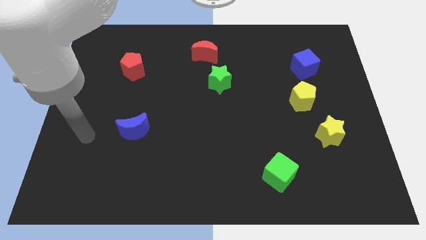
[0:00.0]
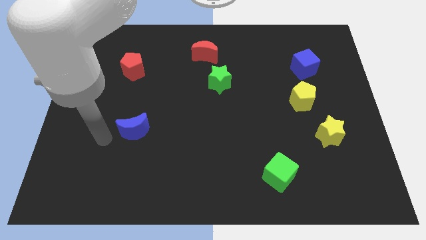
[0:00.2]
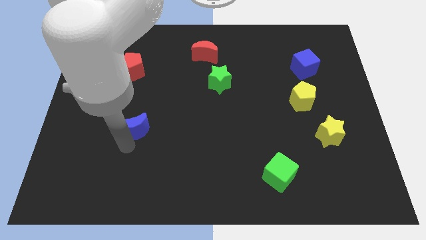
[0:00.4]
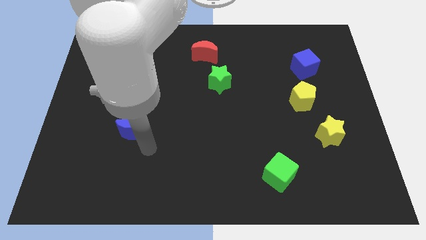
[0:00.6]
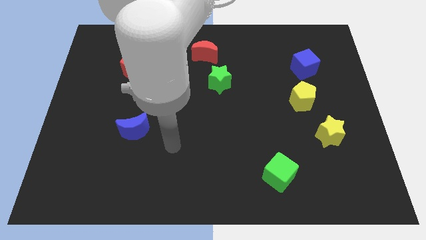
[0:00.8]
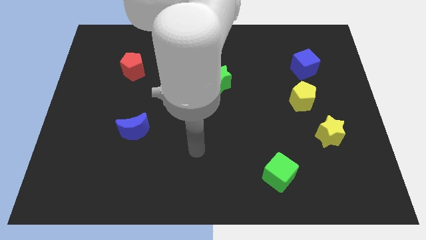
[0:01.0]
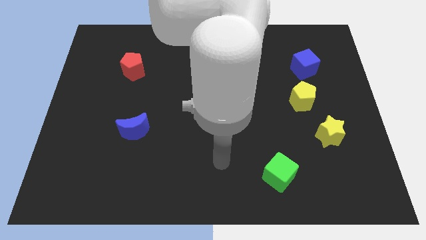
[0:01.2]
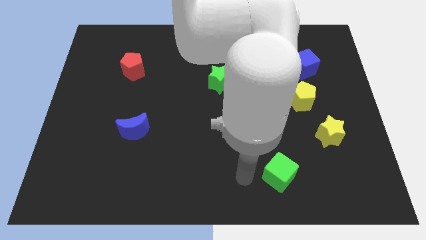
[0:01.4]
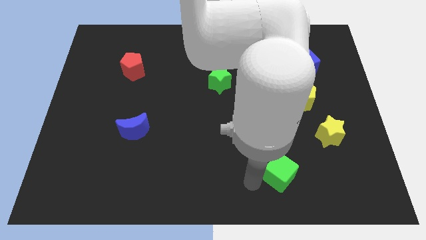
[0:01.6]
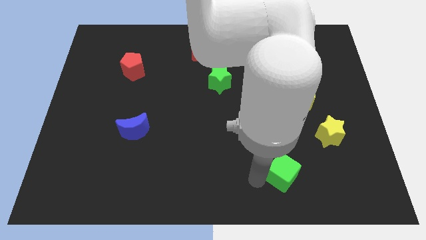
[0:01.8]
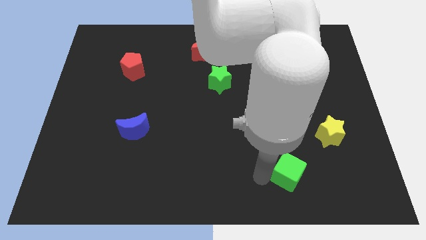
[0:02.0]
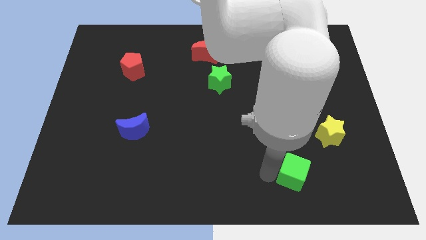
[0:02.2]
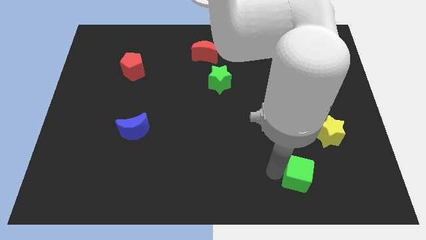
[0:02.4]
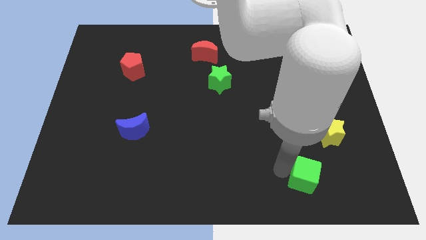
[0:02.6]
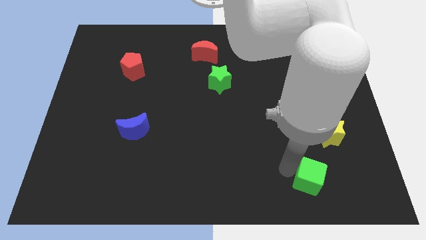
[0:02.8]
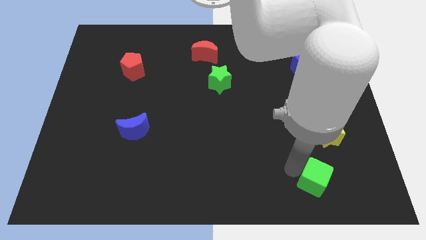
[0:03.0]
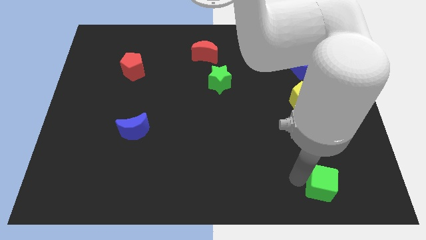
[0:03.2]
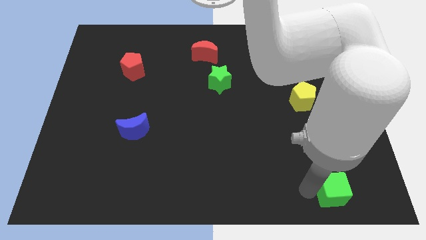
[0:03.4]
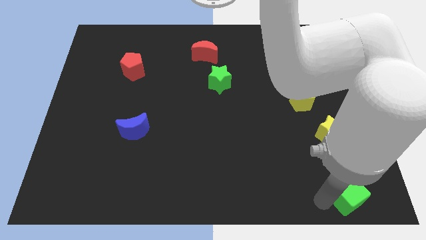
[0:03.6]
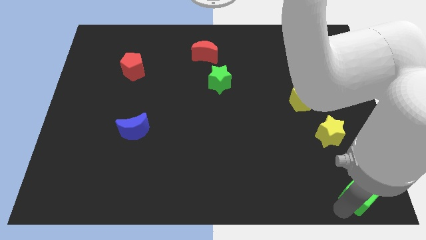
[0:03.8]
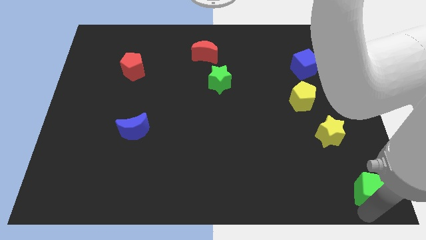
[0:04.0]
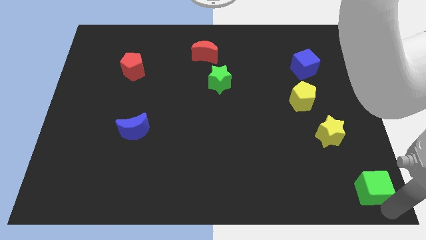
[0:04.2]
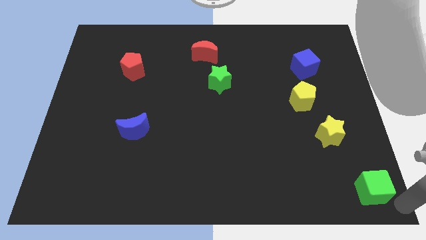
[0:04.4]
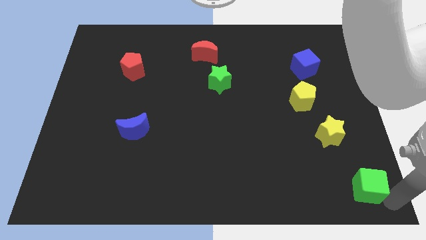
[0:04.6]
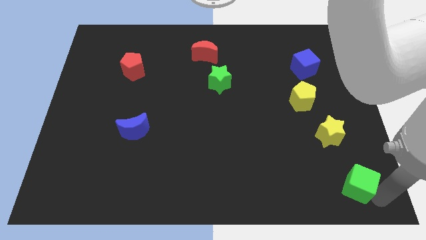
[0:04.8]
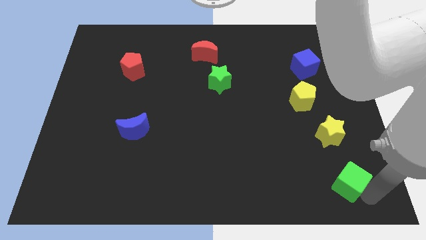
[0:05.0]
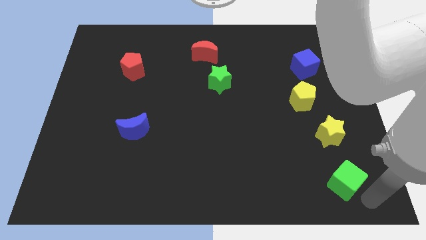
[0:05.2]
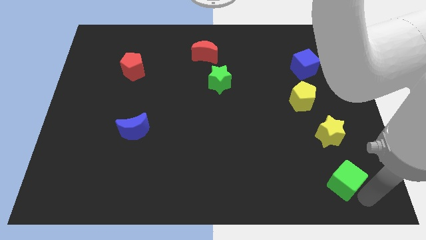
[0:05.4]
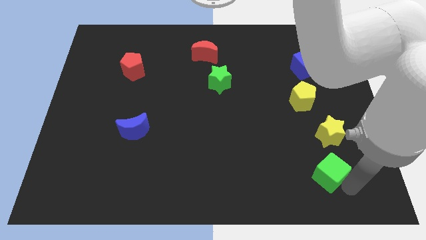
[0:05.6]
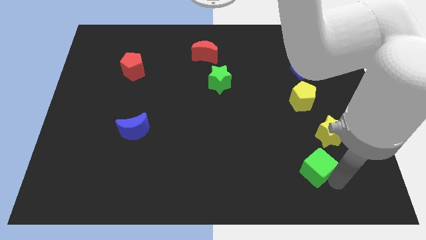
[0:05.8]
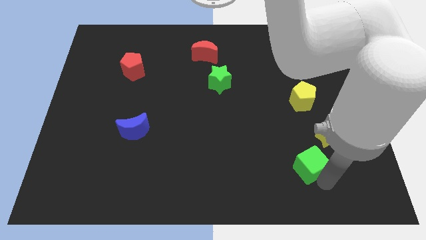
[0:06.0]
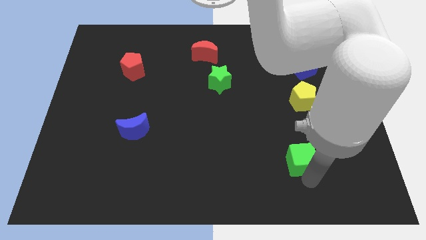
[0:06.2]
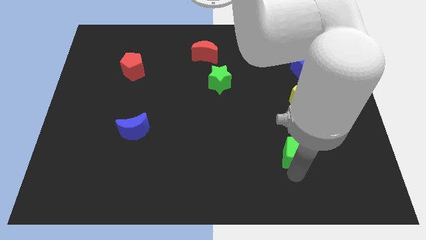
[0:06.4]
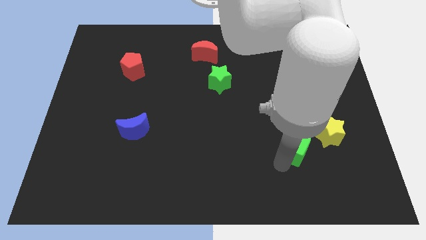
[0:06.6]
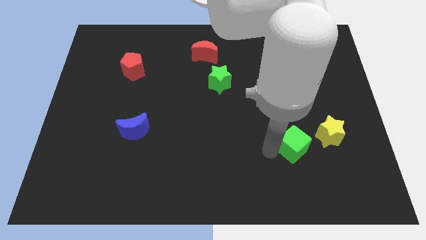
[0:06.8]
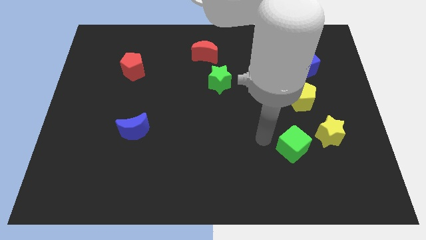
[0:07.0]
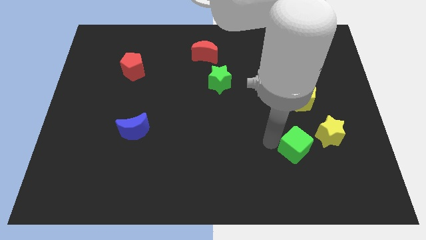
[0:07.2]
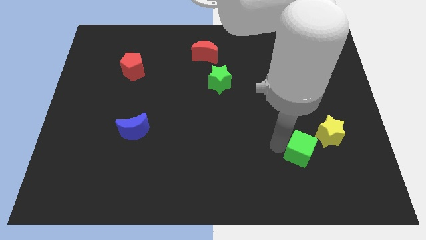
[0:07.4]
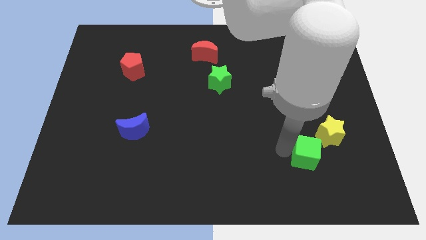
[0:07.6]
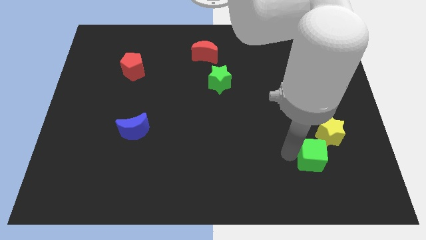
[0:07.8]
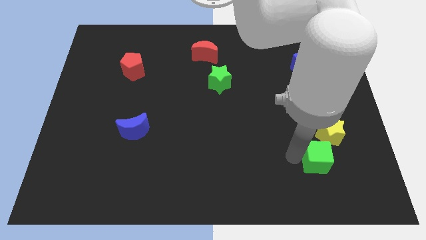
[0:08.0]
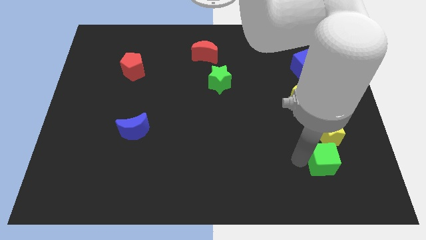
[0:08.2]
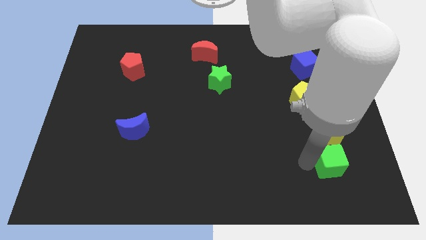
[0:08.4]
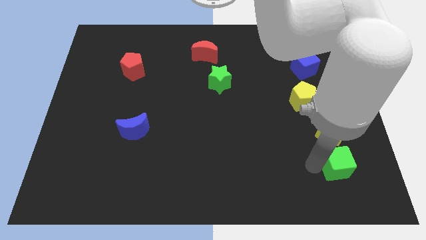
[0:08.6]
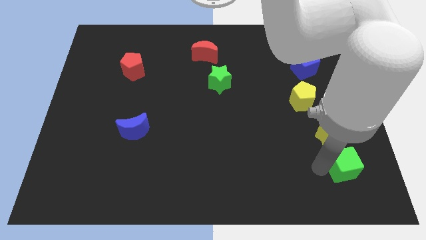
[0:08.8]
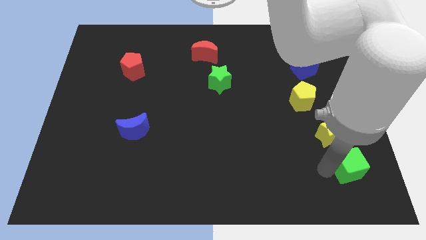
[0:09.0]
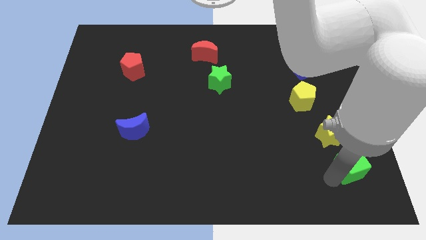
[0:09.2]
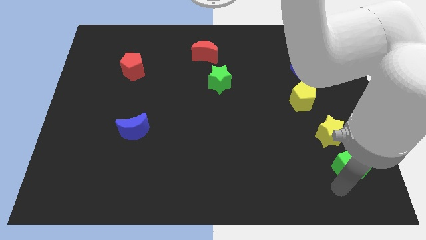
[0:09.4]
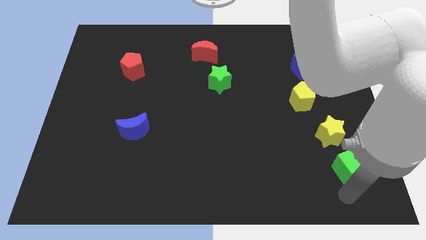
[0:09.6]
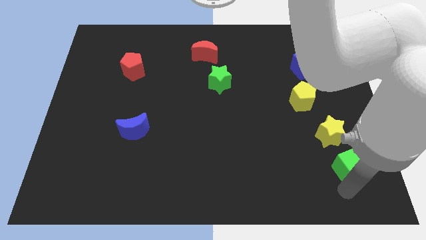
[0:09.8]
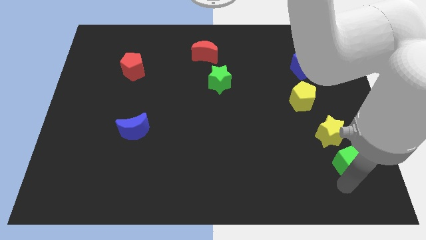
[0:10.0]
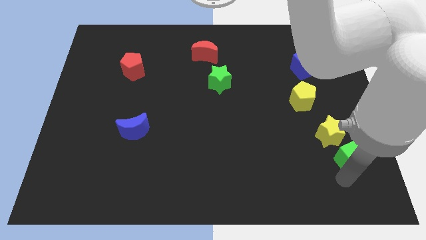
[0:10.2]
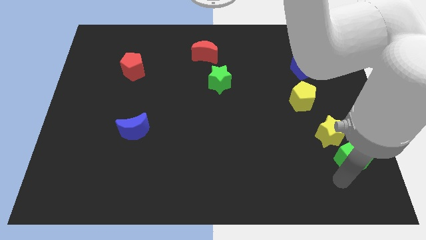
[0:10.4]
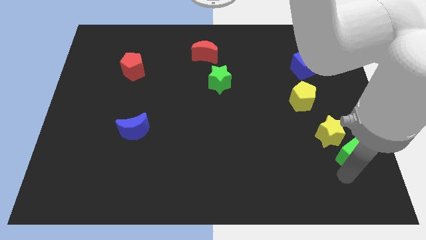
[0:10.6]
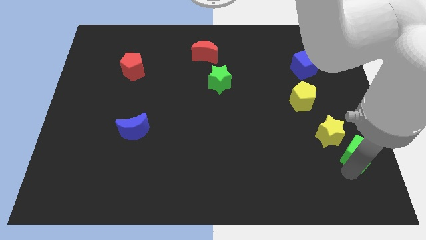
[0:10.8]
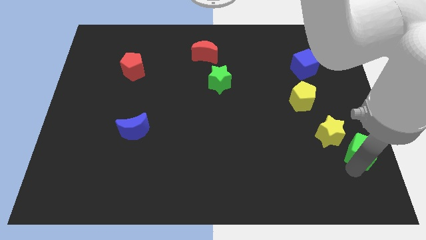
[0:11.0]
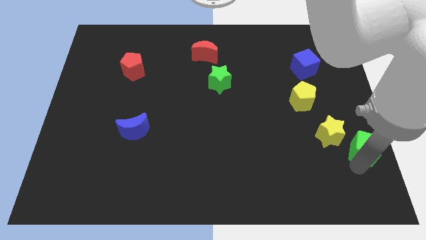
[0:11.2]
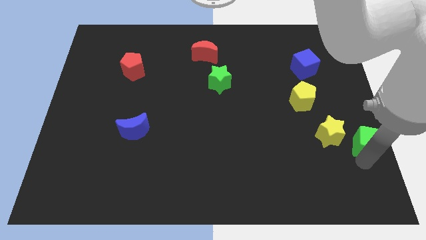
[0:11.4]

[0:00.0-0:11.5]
move the green cube to the right side

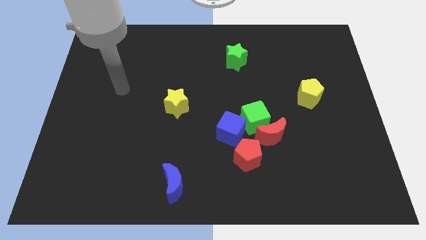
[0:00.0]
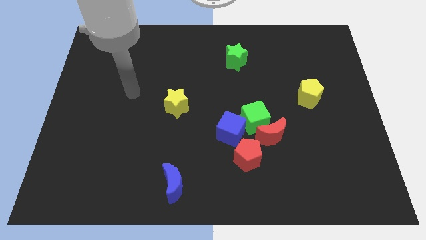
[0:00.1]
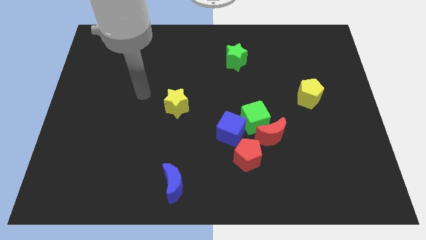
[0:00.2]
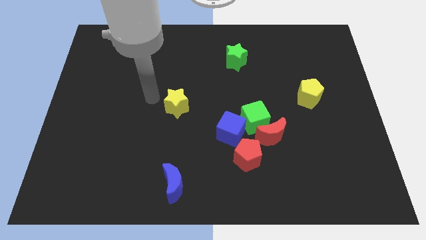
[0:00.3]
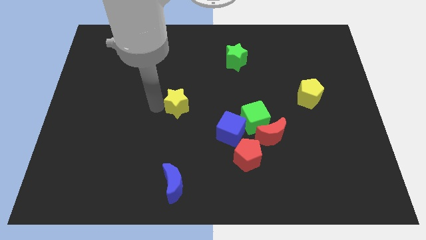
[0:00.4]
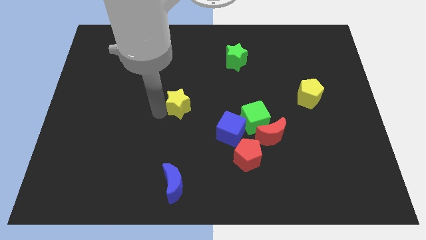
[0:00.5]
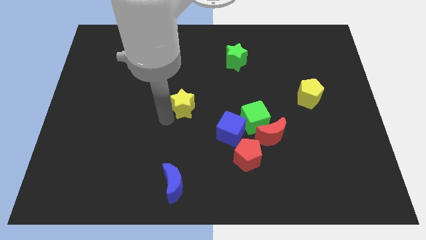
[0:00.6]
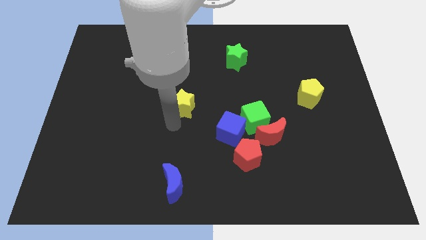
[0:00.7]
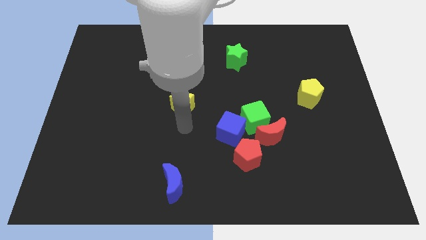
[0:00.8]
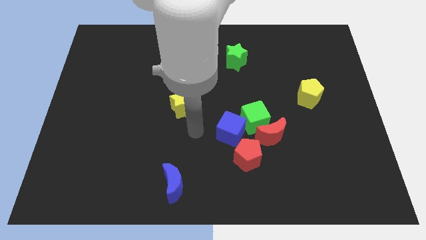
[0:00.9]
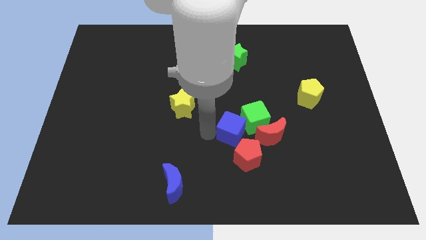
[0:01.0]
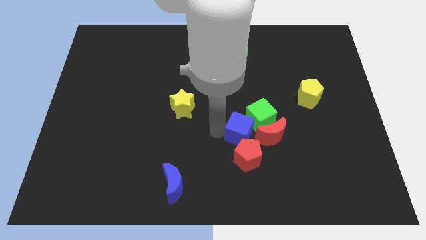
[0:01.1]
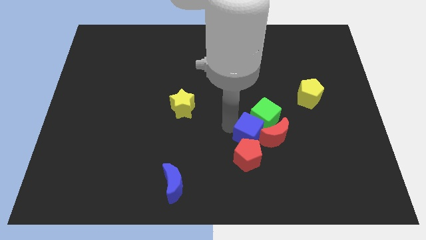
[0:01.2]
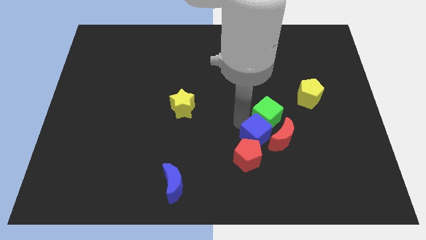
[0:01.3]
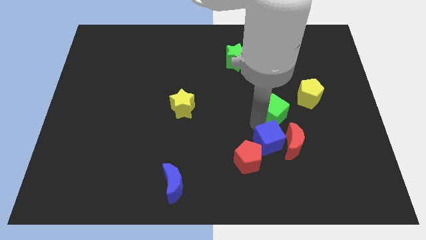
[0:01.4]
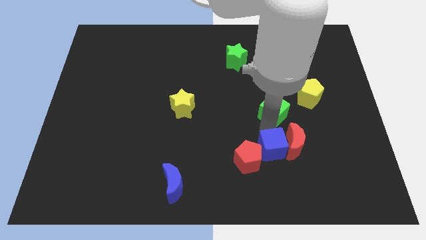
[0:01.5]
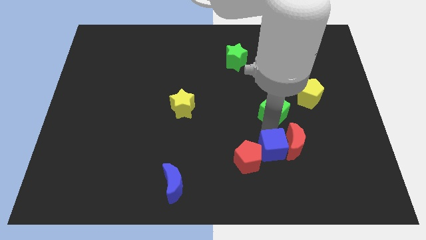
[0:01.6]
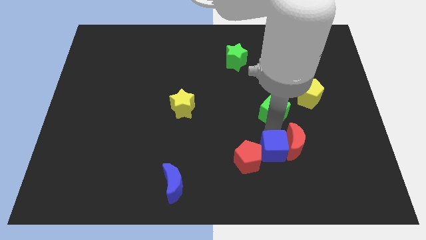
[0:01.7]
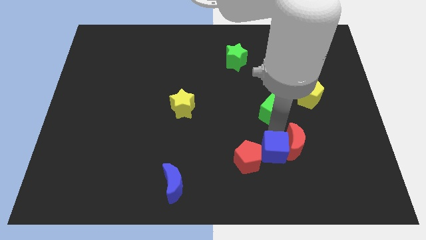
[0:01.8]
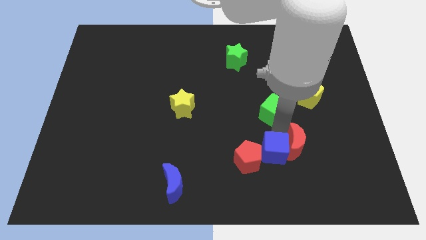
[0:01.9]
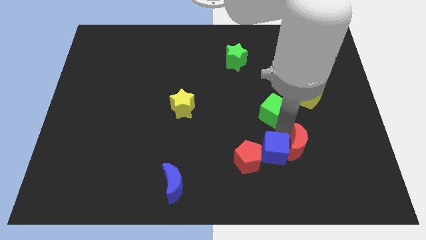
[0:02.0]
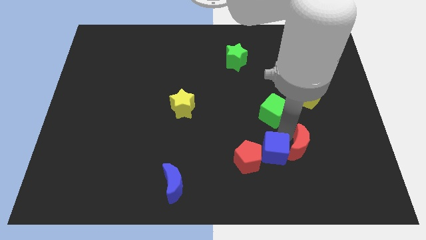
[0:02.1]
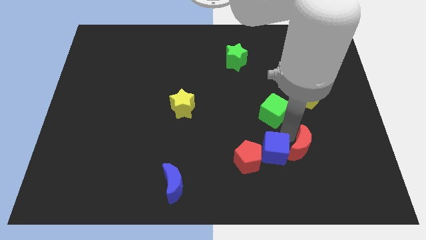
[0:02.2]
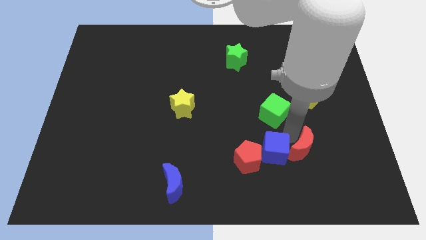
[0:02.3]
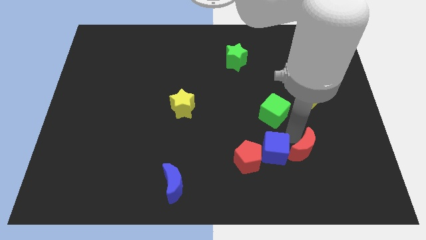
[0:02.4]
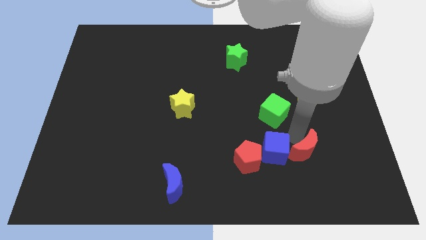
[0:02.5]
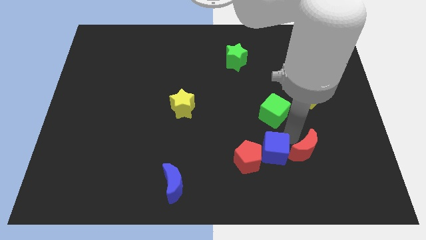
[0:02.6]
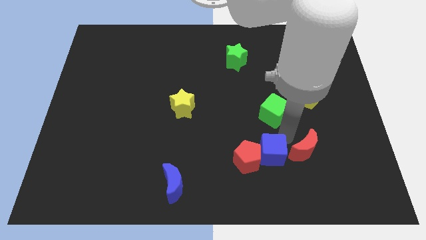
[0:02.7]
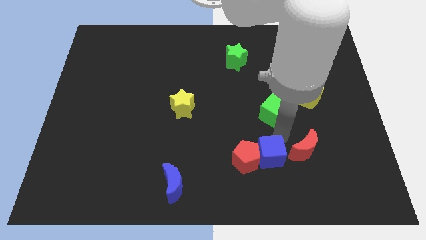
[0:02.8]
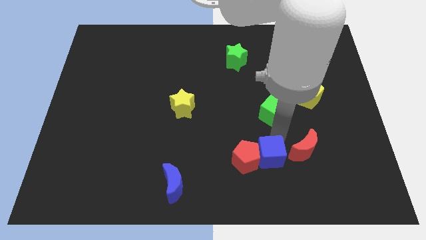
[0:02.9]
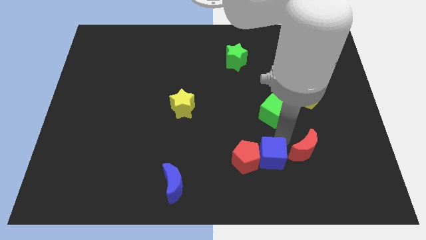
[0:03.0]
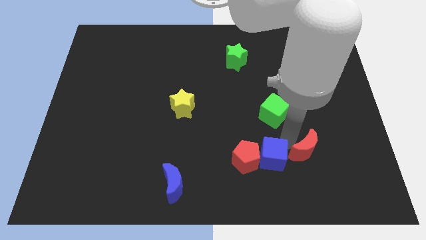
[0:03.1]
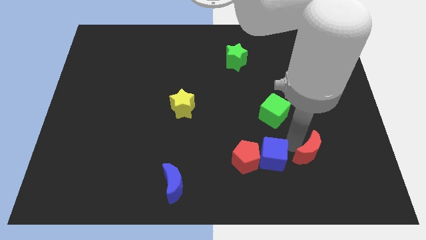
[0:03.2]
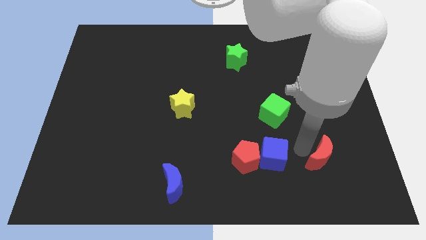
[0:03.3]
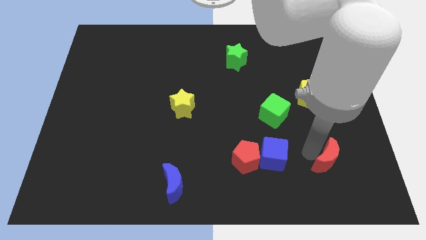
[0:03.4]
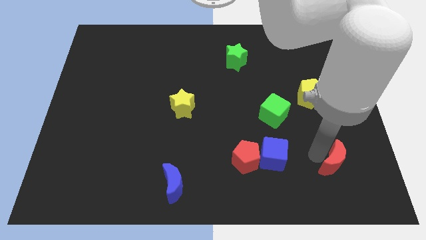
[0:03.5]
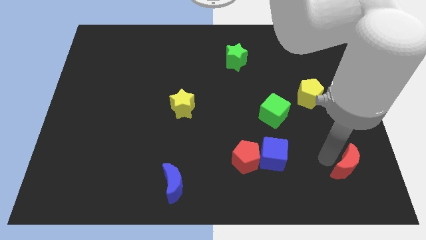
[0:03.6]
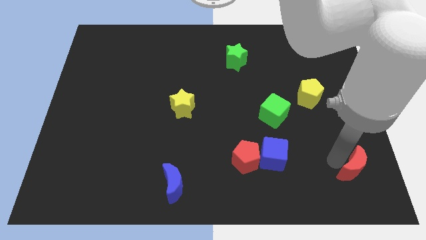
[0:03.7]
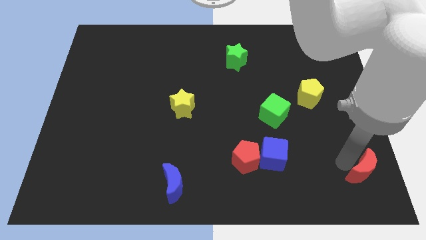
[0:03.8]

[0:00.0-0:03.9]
move the red moon to the bottom right corner
